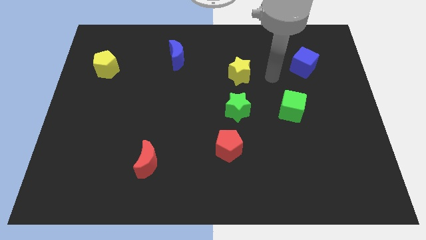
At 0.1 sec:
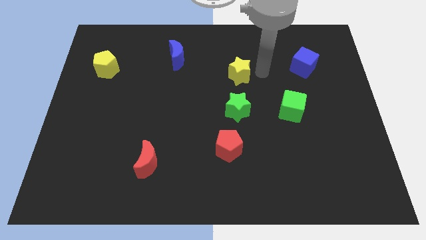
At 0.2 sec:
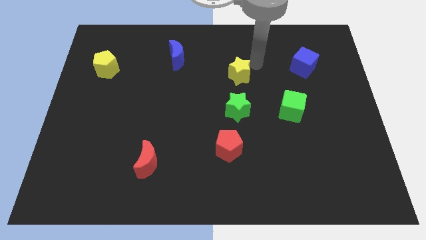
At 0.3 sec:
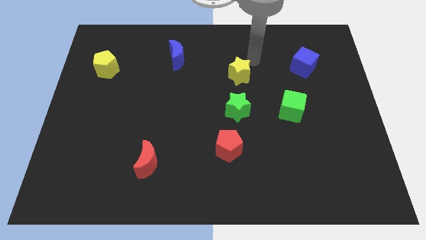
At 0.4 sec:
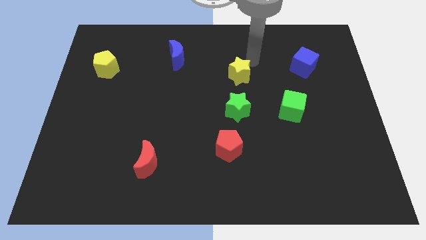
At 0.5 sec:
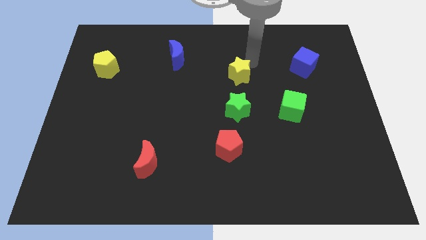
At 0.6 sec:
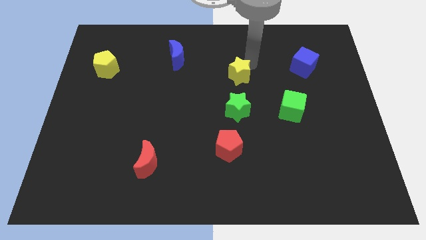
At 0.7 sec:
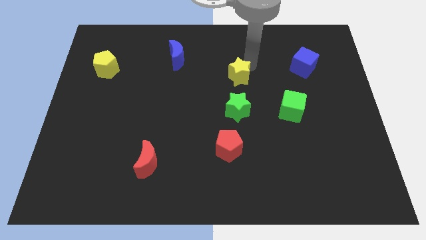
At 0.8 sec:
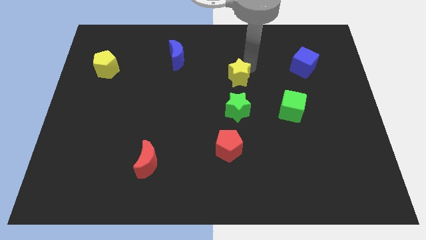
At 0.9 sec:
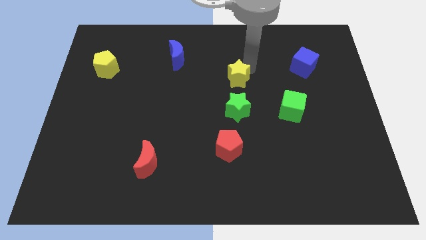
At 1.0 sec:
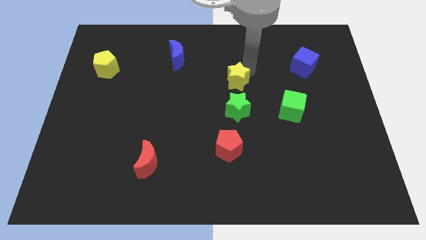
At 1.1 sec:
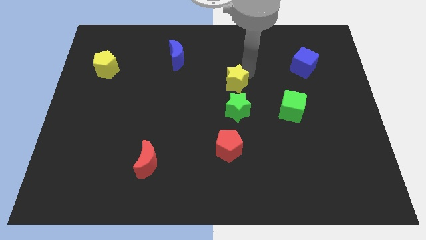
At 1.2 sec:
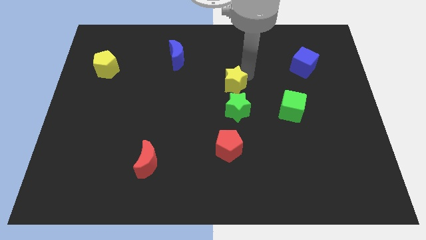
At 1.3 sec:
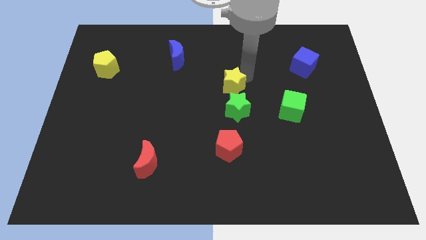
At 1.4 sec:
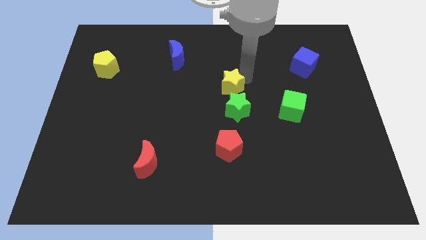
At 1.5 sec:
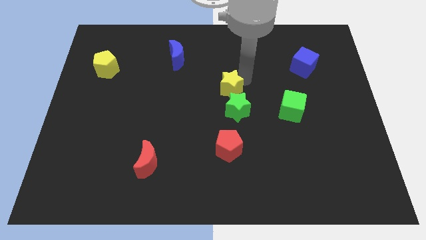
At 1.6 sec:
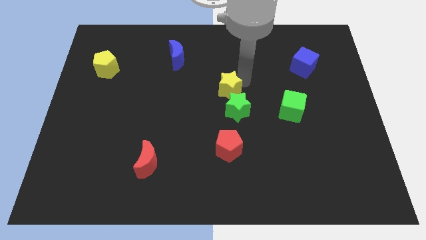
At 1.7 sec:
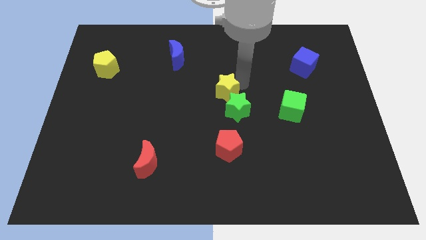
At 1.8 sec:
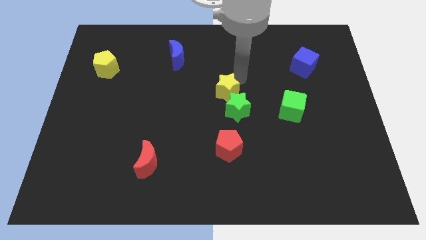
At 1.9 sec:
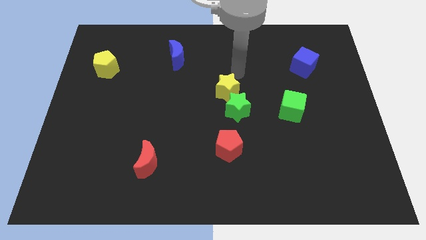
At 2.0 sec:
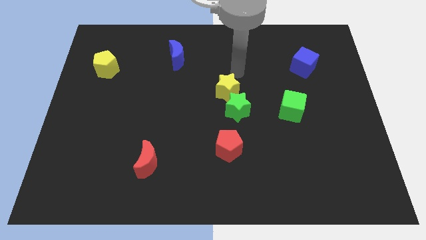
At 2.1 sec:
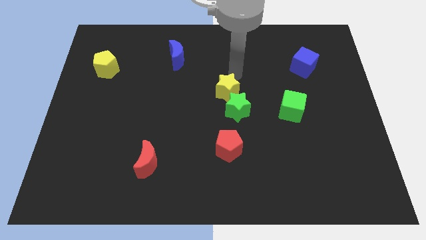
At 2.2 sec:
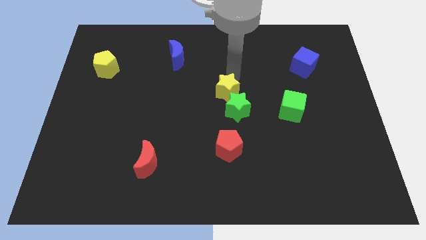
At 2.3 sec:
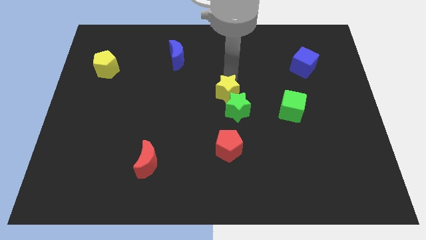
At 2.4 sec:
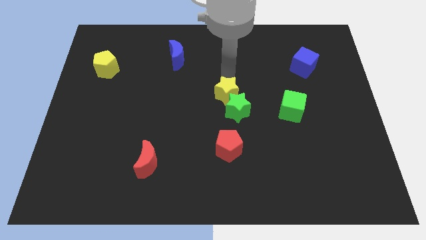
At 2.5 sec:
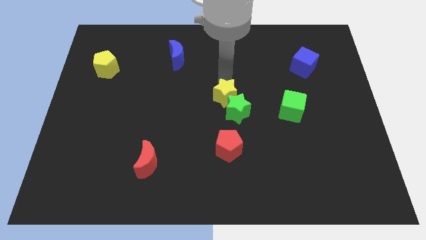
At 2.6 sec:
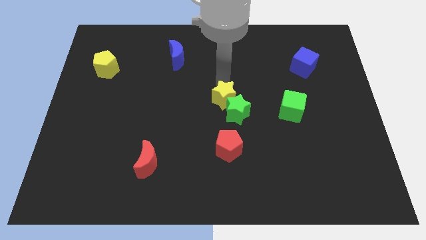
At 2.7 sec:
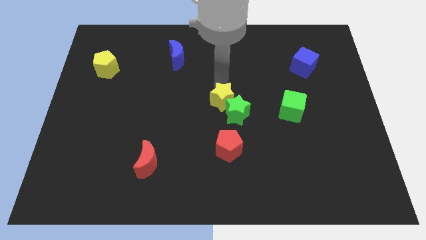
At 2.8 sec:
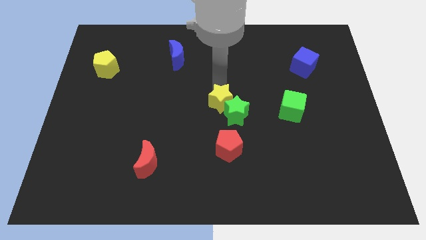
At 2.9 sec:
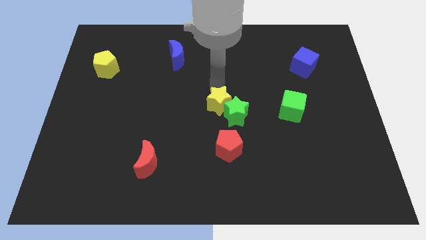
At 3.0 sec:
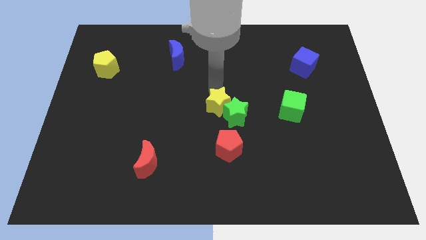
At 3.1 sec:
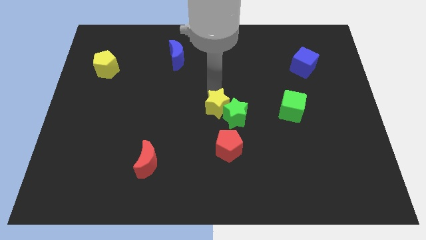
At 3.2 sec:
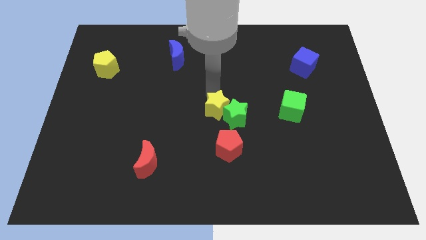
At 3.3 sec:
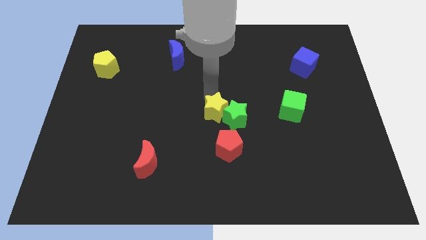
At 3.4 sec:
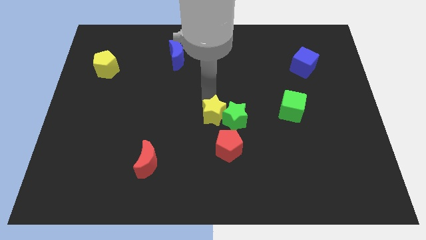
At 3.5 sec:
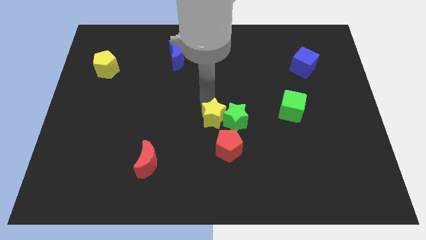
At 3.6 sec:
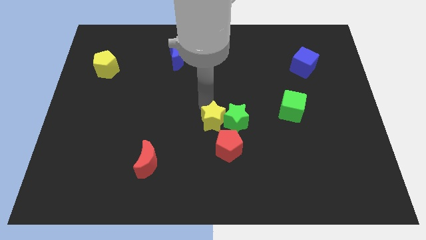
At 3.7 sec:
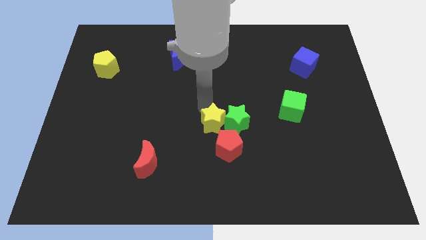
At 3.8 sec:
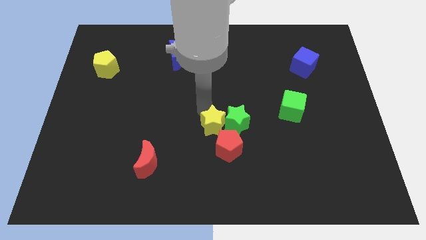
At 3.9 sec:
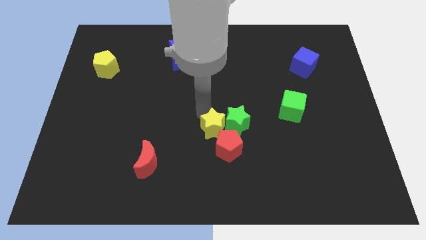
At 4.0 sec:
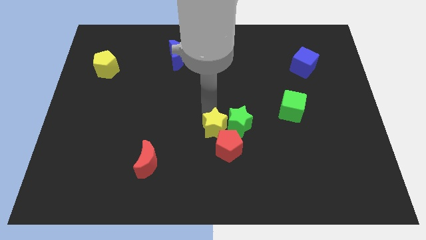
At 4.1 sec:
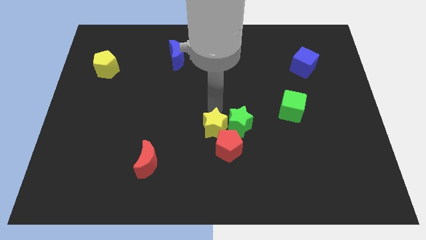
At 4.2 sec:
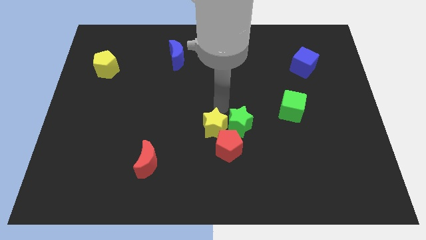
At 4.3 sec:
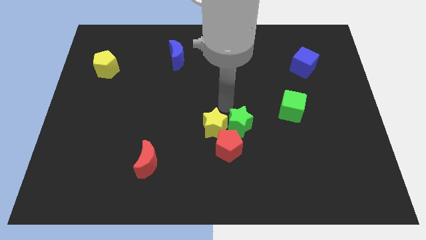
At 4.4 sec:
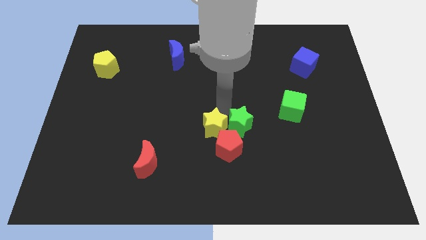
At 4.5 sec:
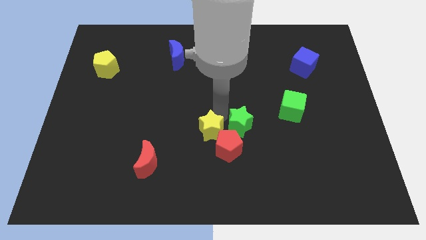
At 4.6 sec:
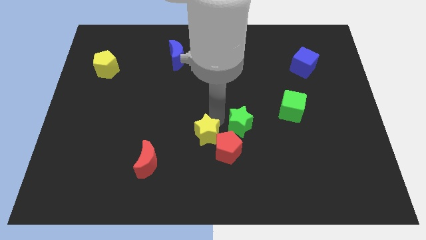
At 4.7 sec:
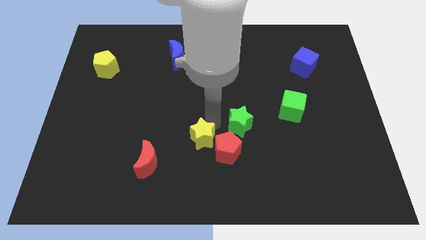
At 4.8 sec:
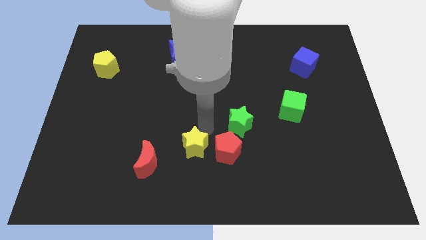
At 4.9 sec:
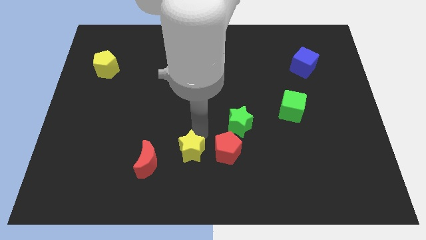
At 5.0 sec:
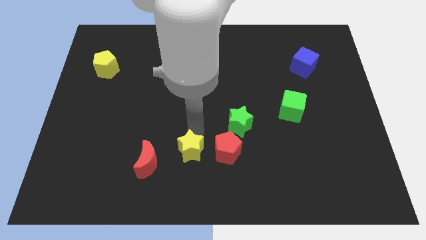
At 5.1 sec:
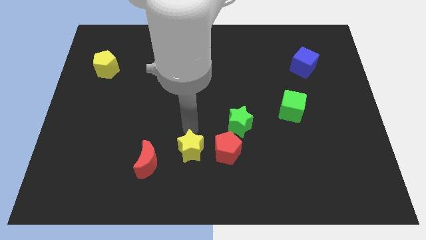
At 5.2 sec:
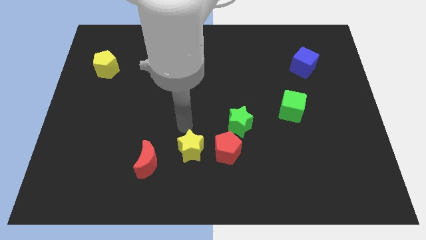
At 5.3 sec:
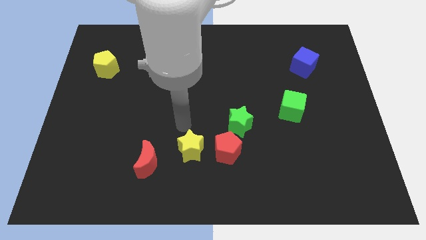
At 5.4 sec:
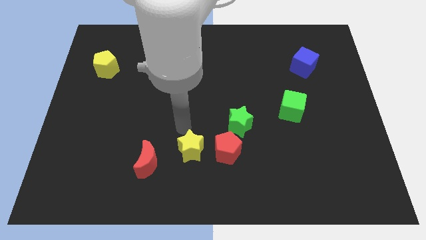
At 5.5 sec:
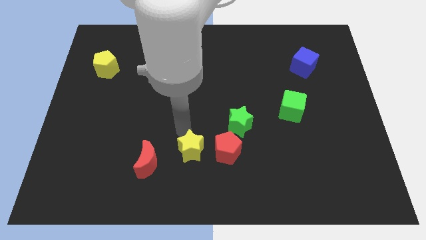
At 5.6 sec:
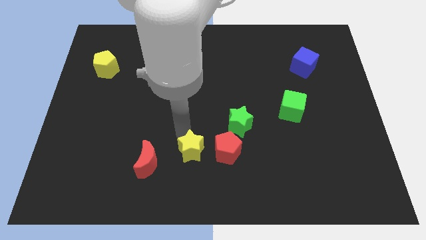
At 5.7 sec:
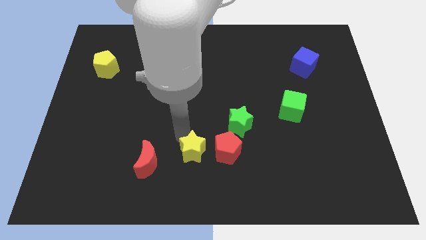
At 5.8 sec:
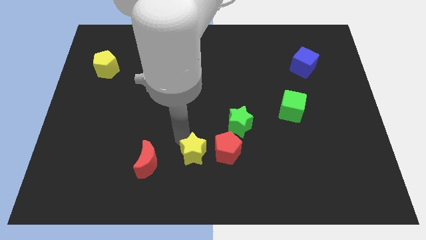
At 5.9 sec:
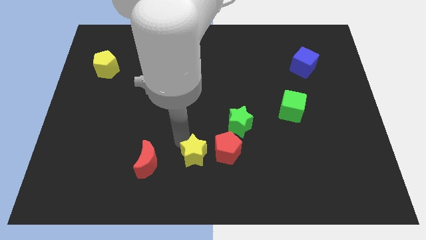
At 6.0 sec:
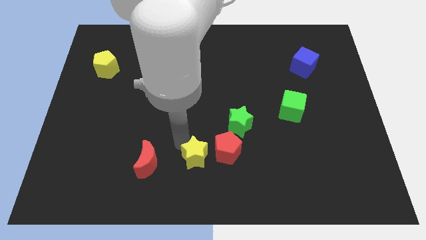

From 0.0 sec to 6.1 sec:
put the yellow star to the bottom side

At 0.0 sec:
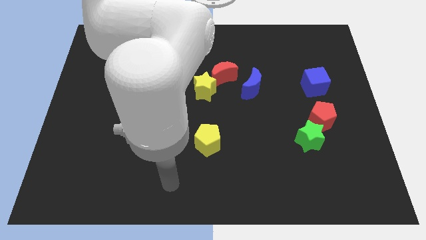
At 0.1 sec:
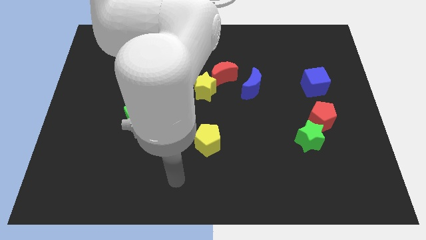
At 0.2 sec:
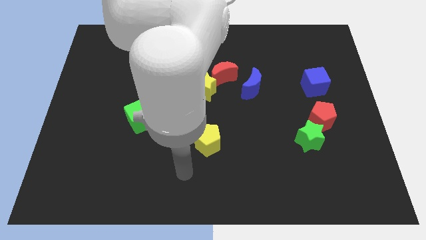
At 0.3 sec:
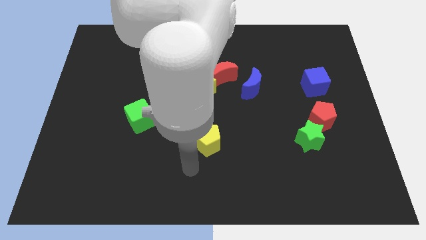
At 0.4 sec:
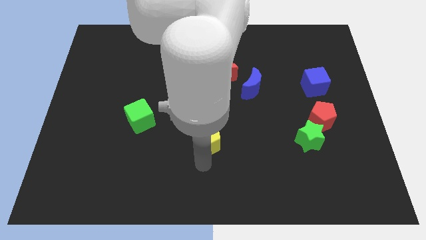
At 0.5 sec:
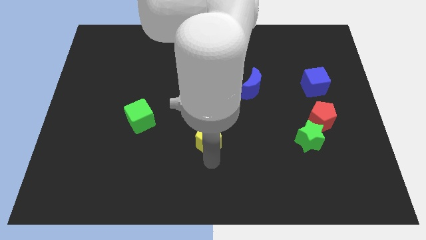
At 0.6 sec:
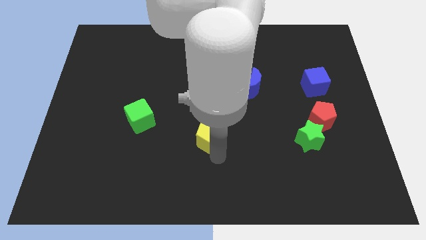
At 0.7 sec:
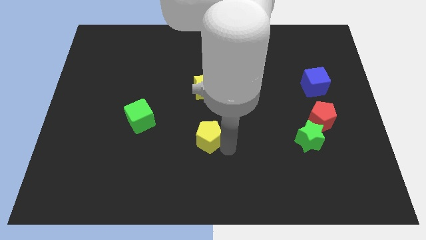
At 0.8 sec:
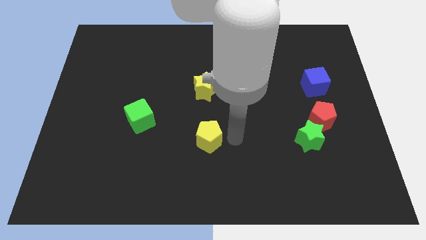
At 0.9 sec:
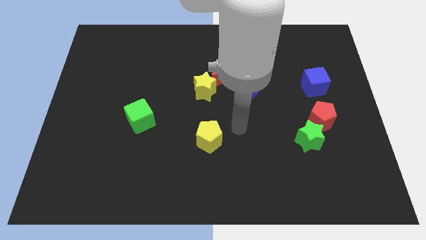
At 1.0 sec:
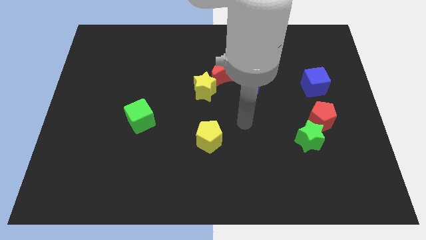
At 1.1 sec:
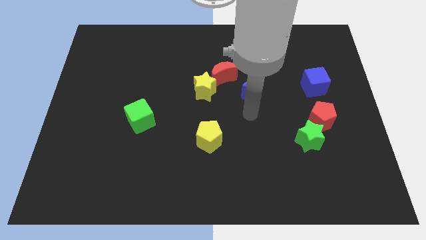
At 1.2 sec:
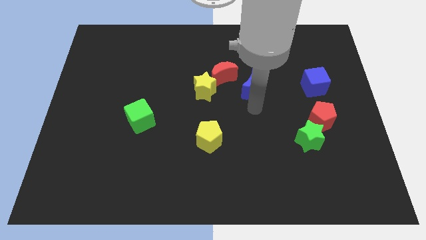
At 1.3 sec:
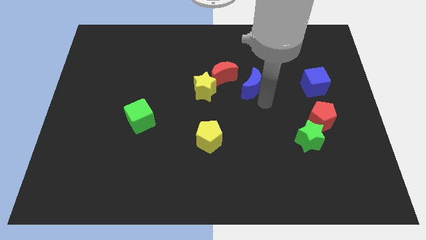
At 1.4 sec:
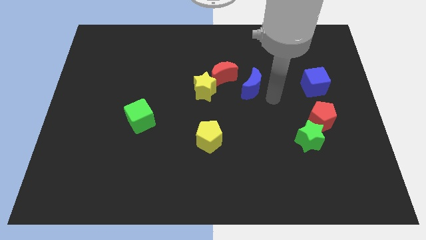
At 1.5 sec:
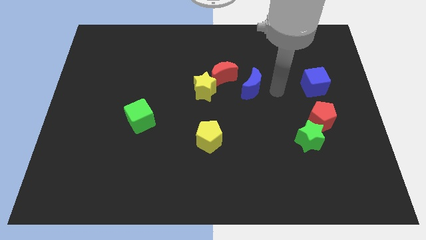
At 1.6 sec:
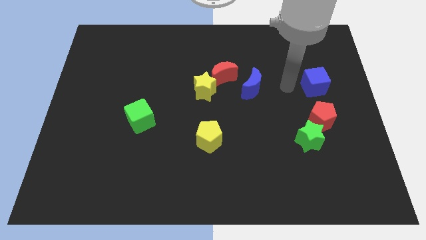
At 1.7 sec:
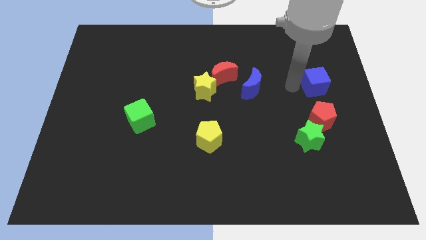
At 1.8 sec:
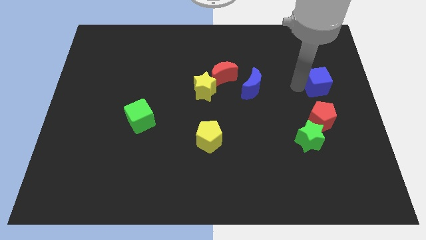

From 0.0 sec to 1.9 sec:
move the blue cube to the right side of the board
